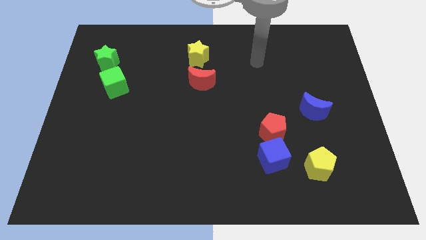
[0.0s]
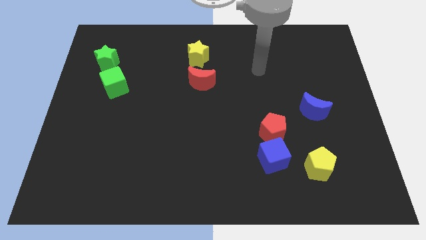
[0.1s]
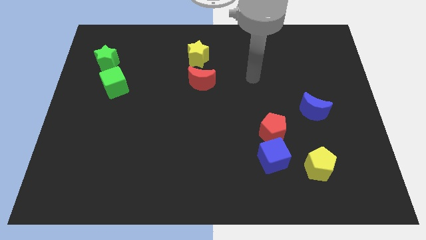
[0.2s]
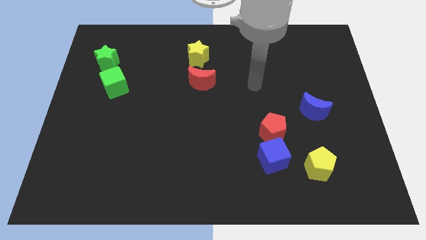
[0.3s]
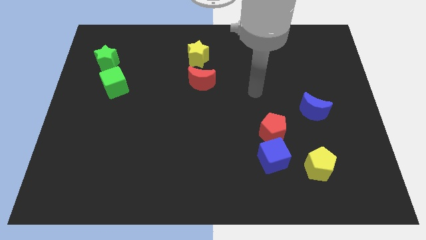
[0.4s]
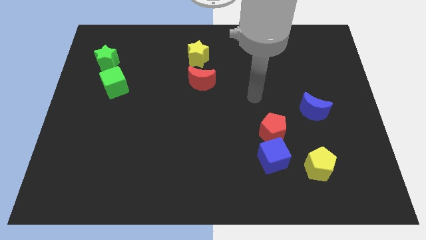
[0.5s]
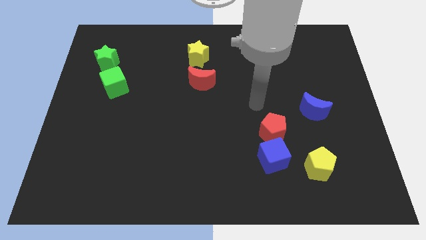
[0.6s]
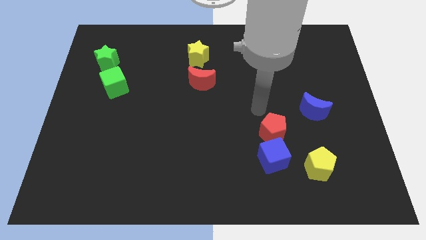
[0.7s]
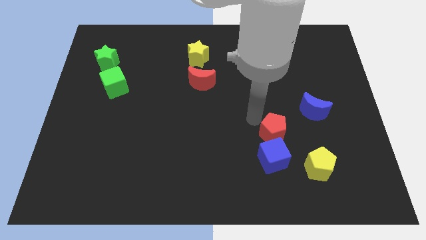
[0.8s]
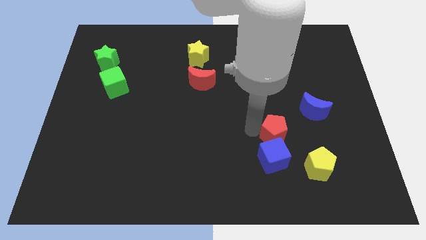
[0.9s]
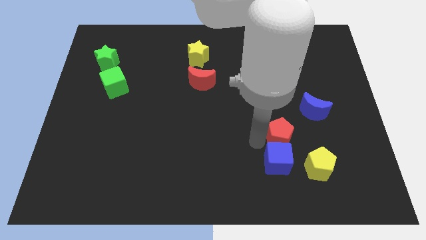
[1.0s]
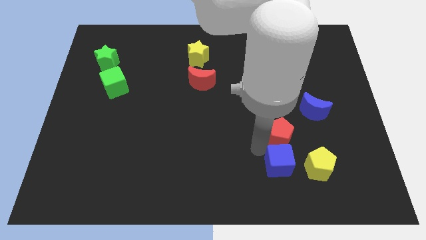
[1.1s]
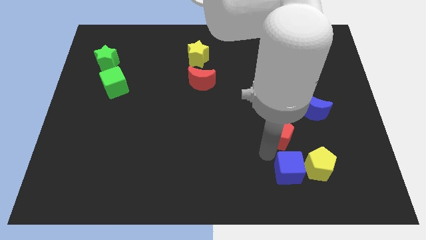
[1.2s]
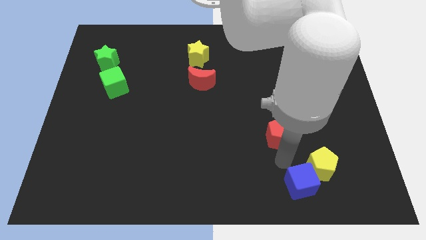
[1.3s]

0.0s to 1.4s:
move the red pentagon away from the blue cube

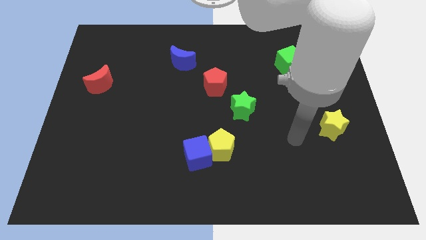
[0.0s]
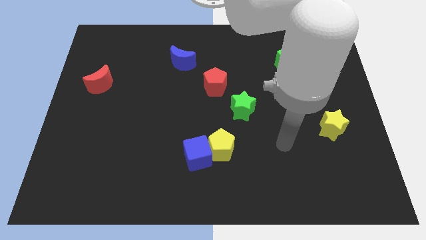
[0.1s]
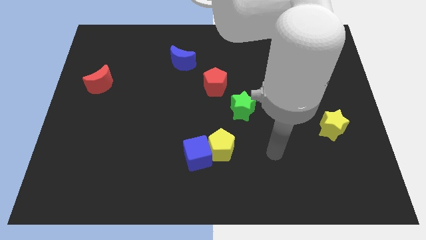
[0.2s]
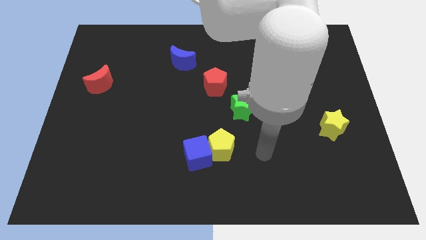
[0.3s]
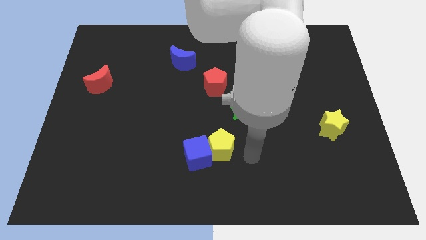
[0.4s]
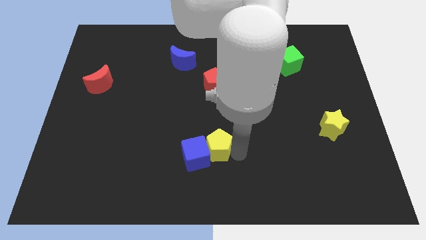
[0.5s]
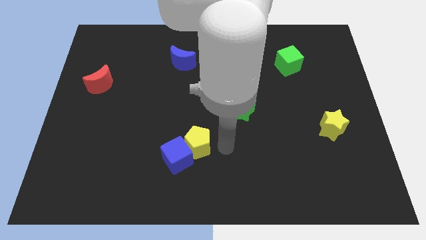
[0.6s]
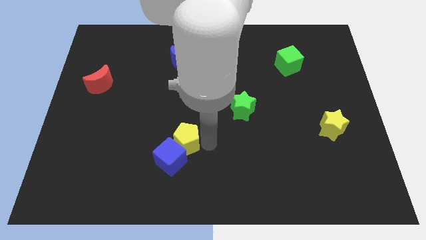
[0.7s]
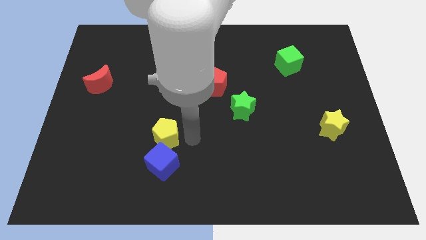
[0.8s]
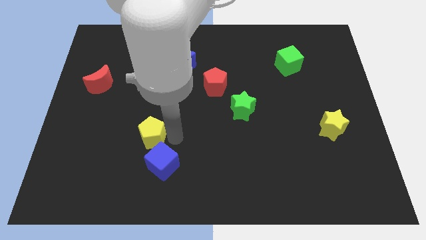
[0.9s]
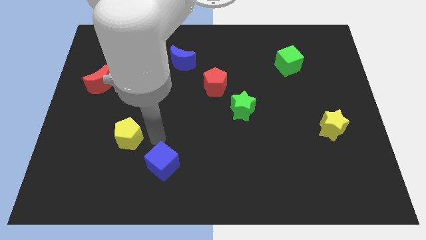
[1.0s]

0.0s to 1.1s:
pull the blue cube apart from the yellow pentagon

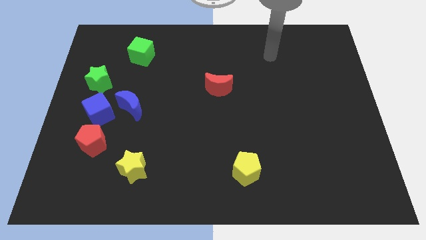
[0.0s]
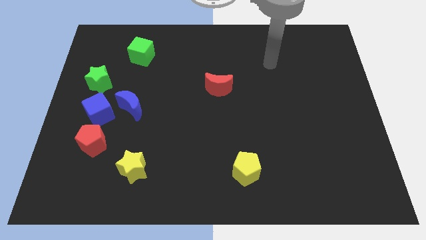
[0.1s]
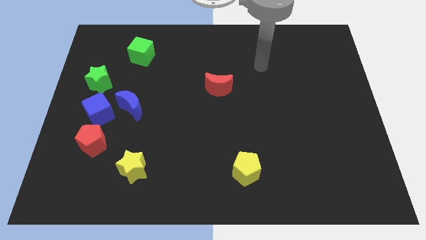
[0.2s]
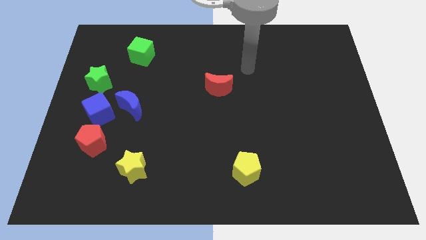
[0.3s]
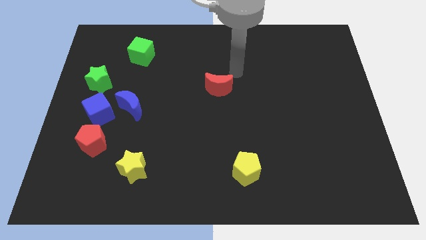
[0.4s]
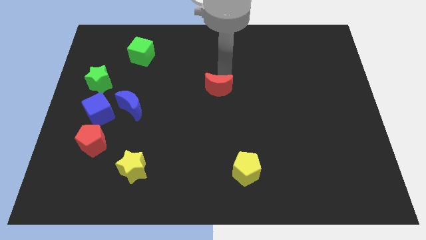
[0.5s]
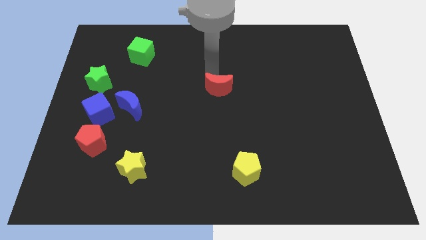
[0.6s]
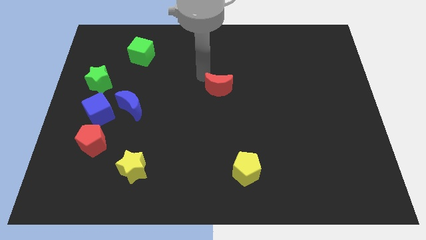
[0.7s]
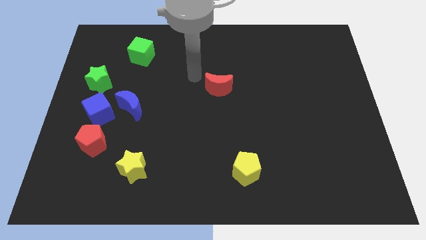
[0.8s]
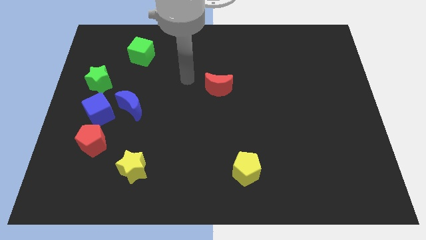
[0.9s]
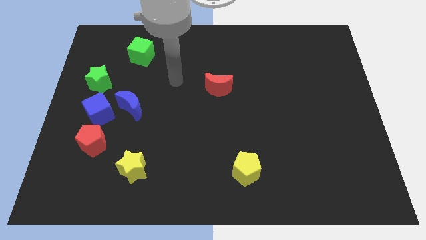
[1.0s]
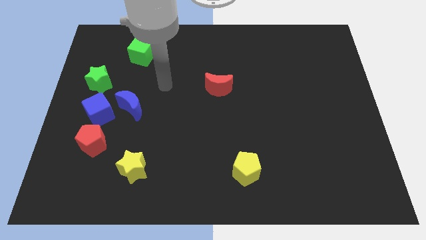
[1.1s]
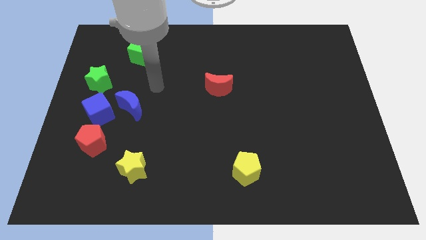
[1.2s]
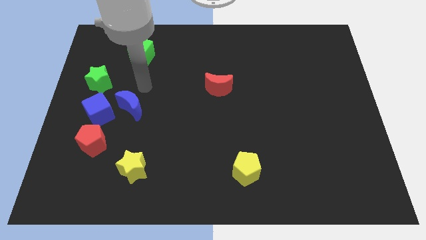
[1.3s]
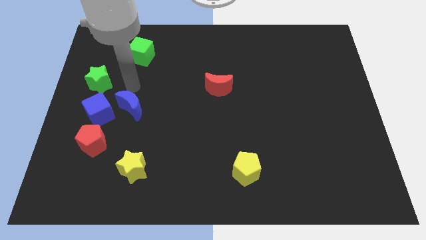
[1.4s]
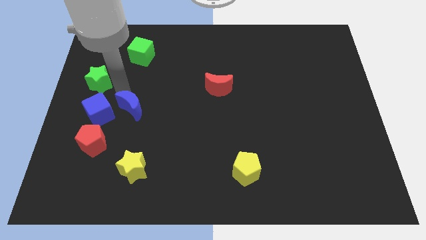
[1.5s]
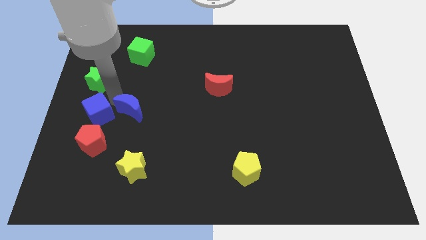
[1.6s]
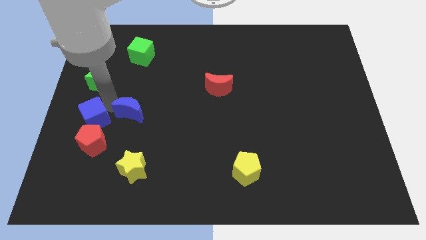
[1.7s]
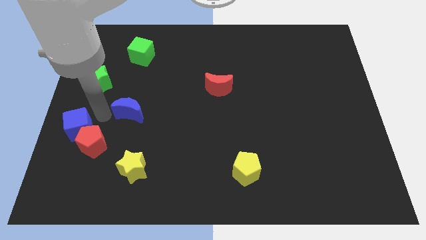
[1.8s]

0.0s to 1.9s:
move the blue moon away from the blue cube

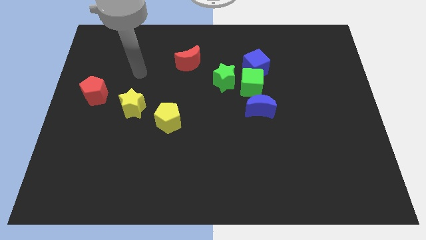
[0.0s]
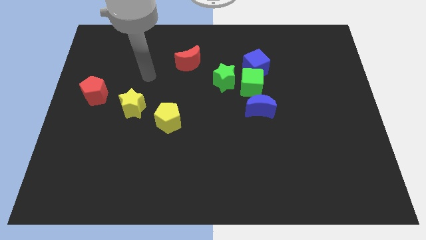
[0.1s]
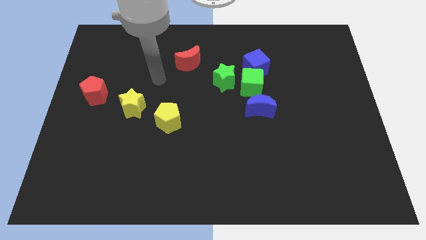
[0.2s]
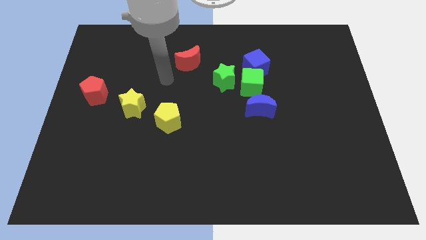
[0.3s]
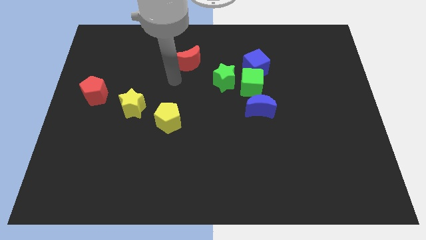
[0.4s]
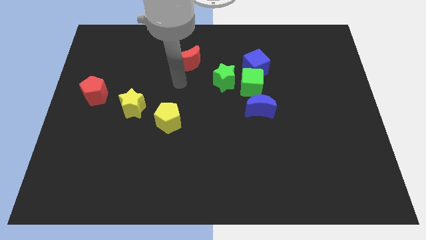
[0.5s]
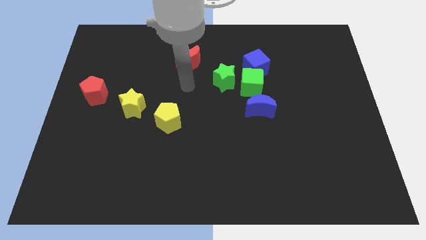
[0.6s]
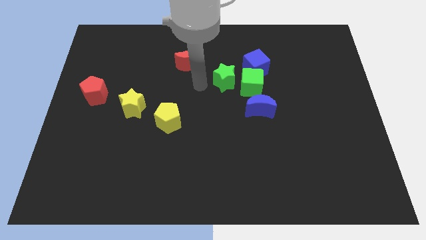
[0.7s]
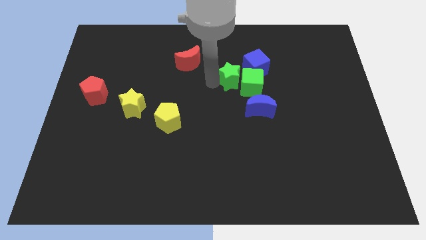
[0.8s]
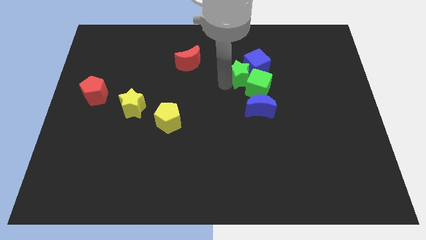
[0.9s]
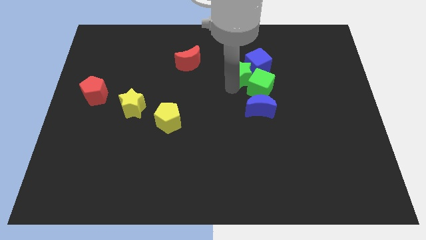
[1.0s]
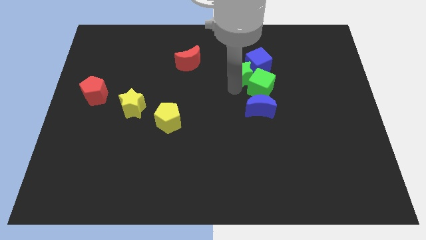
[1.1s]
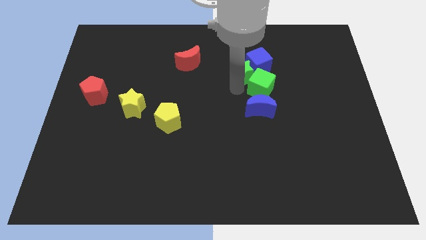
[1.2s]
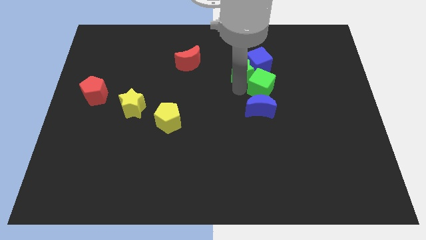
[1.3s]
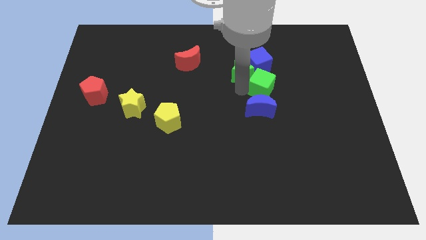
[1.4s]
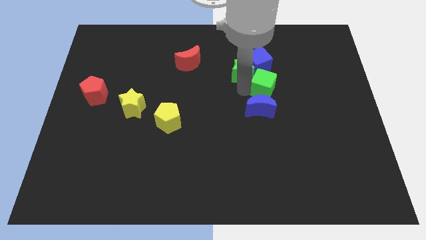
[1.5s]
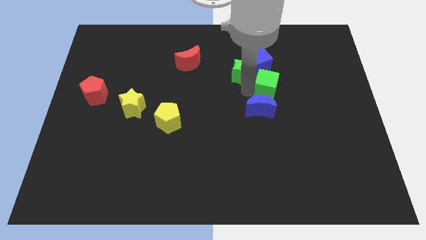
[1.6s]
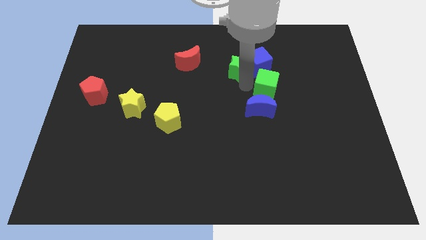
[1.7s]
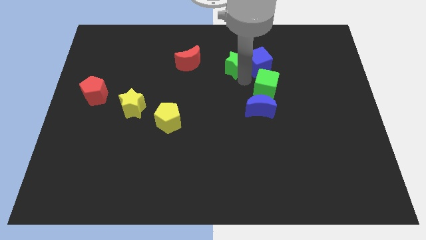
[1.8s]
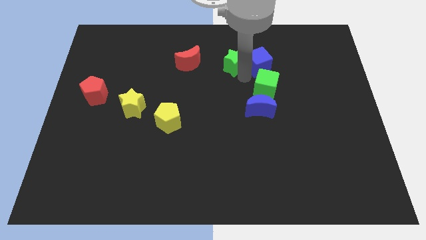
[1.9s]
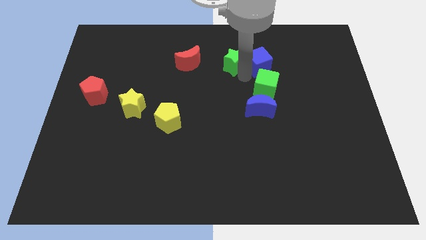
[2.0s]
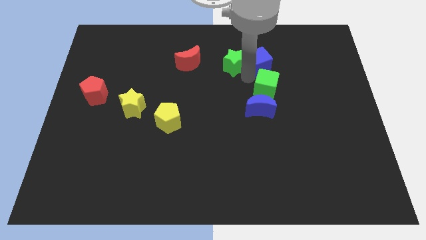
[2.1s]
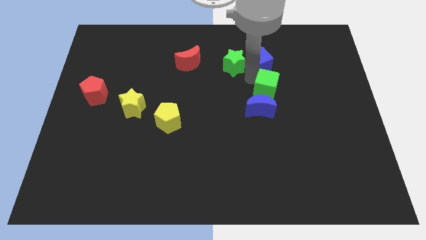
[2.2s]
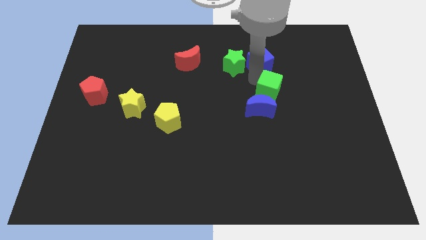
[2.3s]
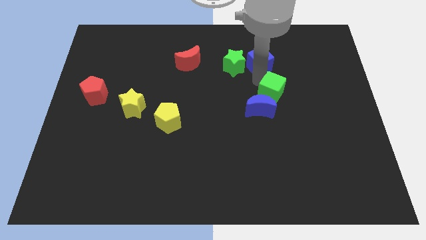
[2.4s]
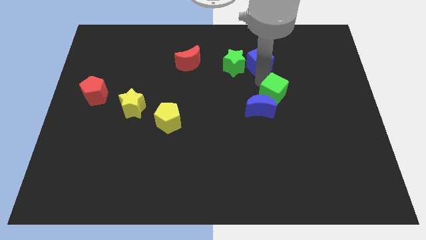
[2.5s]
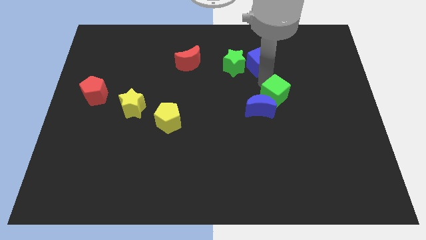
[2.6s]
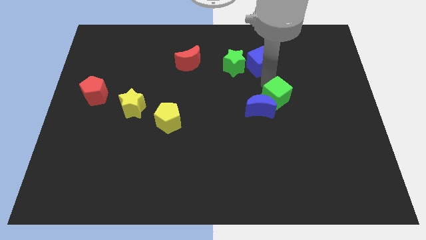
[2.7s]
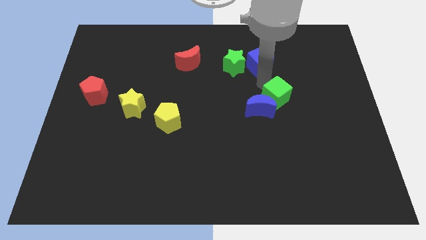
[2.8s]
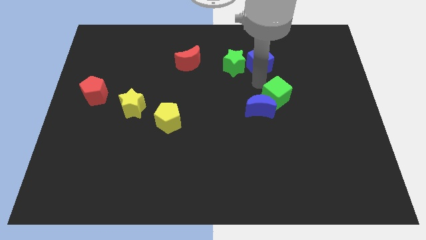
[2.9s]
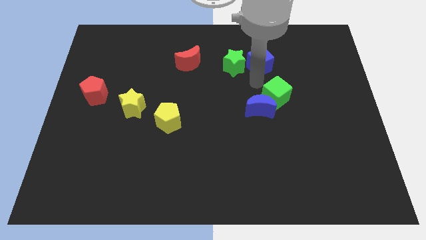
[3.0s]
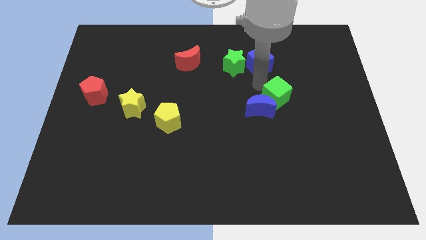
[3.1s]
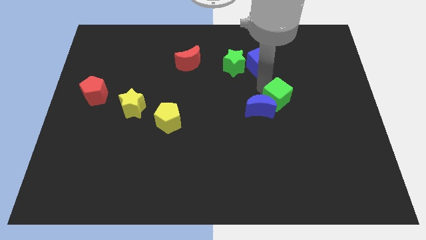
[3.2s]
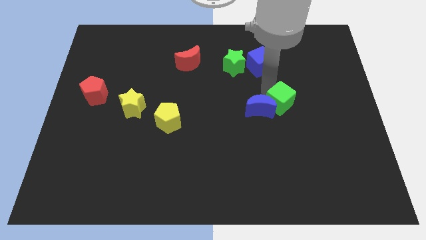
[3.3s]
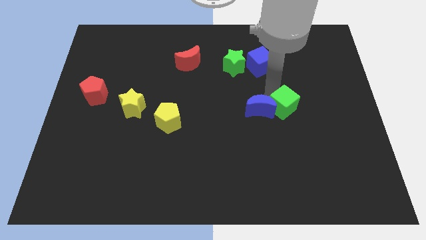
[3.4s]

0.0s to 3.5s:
separate the green cube from the clump

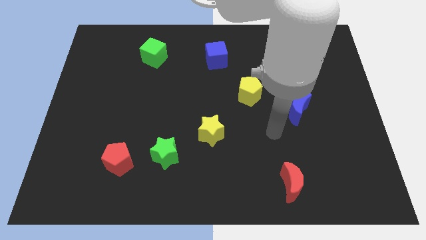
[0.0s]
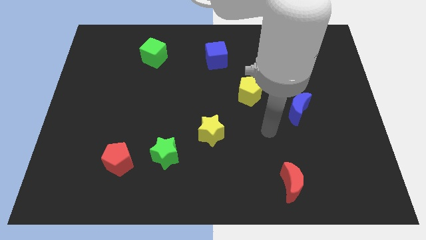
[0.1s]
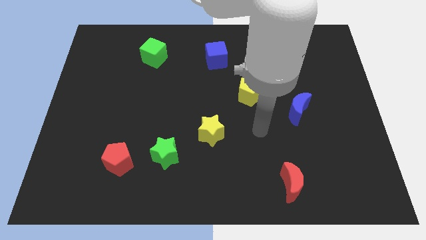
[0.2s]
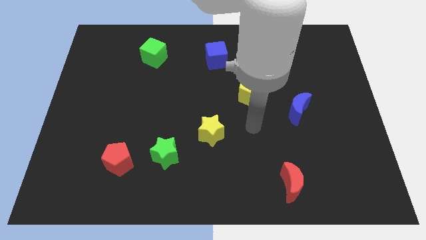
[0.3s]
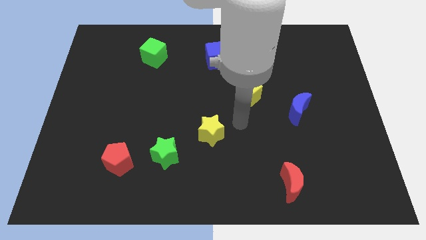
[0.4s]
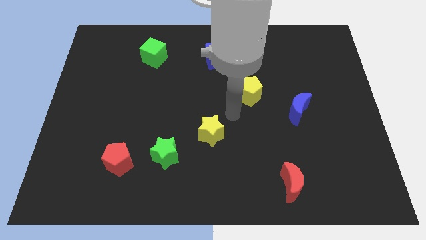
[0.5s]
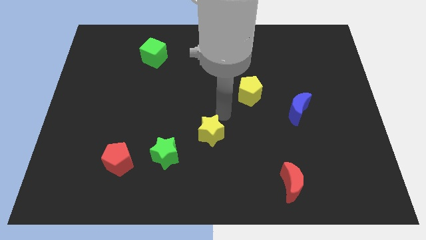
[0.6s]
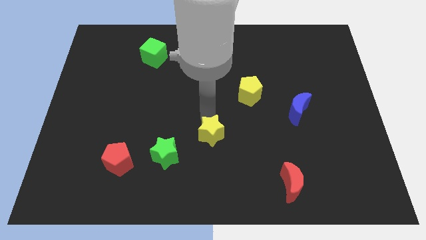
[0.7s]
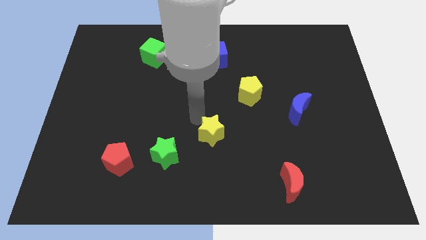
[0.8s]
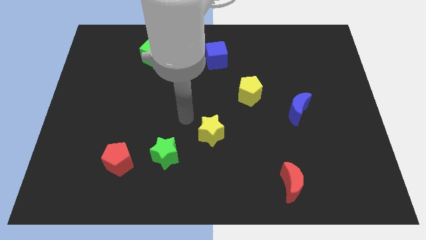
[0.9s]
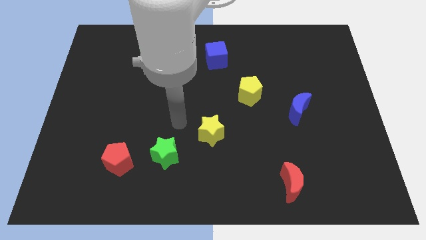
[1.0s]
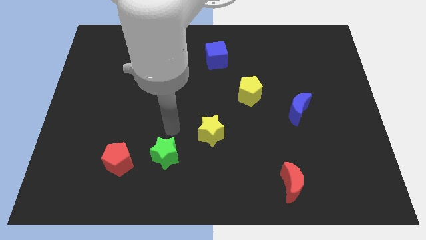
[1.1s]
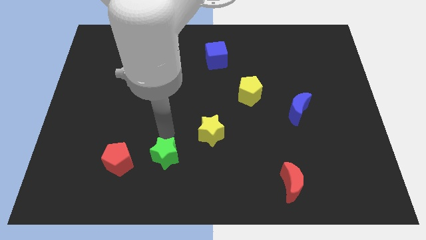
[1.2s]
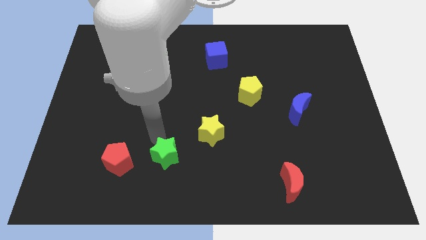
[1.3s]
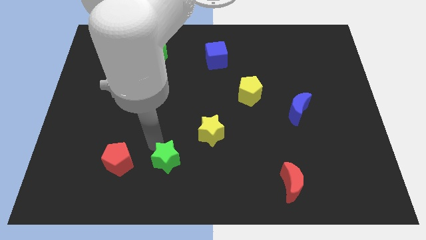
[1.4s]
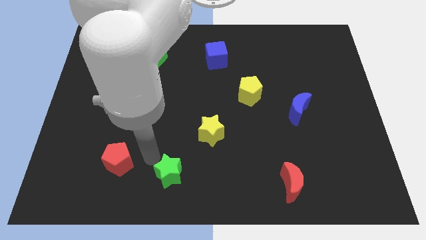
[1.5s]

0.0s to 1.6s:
separate the red pentagon from the green star
